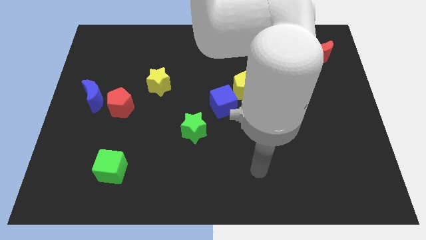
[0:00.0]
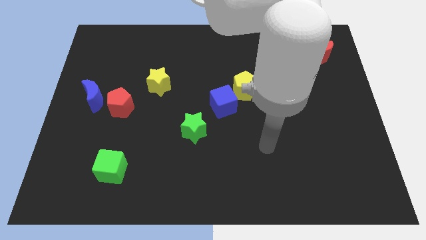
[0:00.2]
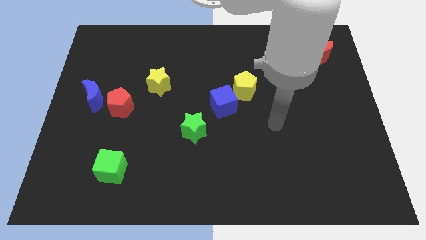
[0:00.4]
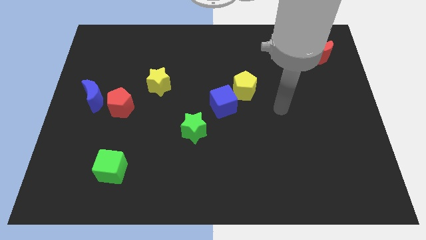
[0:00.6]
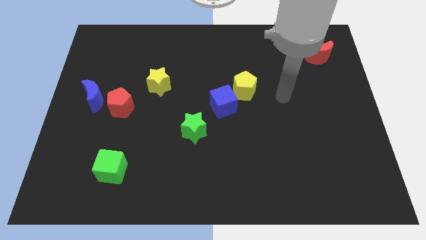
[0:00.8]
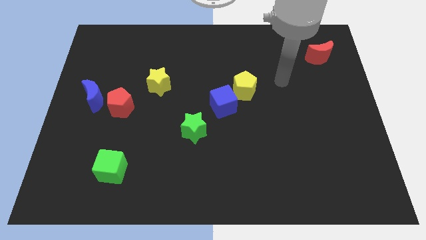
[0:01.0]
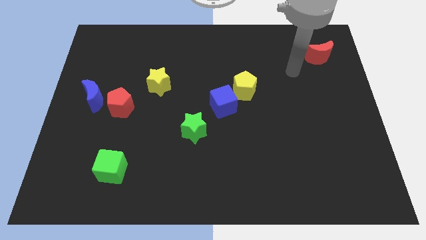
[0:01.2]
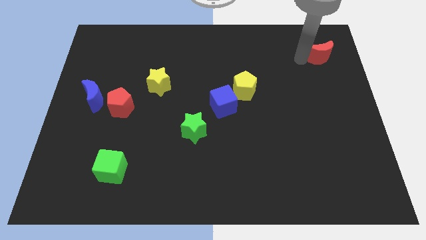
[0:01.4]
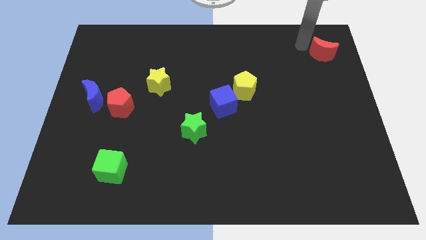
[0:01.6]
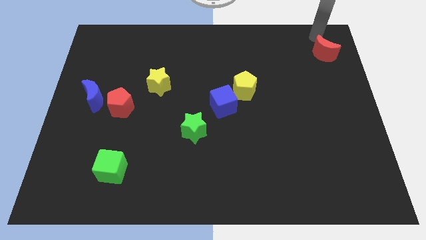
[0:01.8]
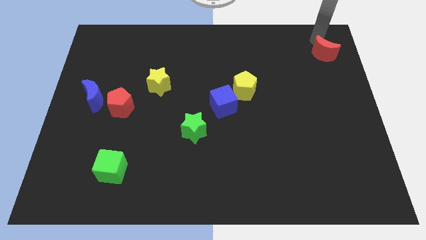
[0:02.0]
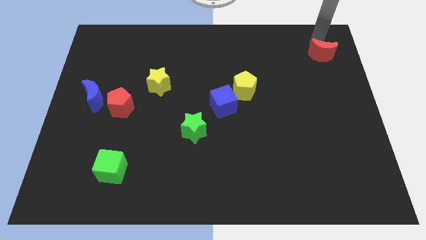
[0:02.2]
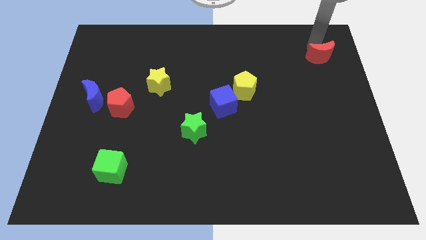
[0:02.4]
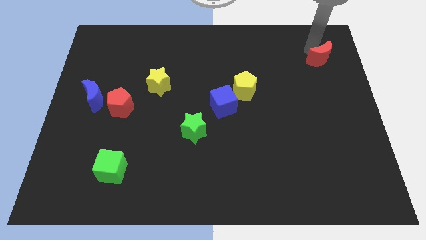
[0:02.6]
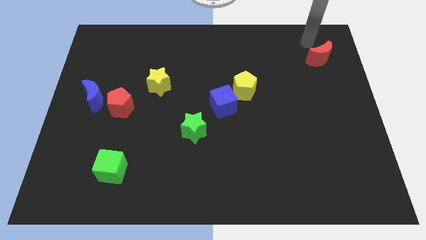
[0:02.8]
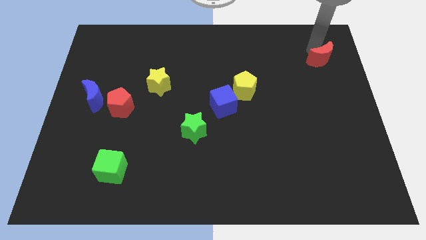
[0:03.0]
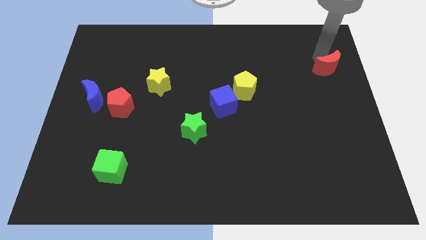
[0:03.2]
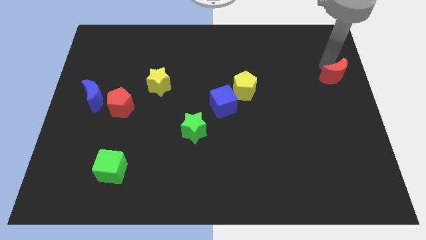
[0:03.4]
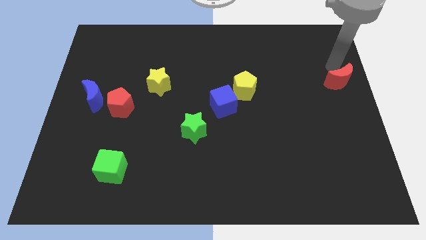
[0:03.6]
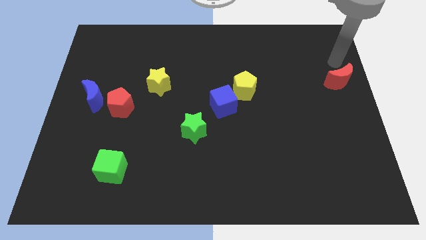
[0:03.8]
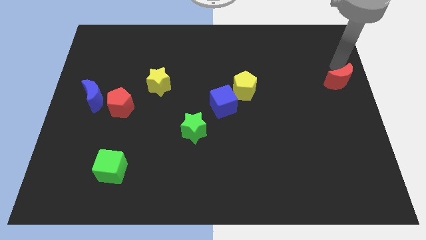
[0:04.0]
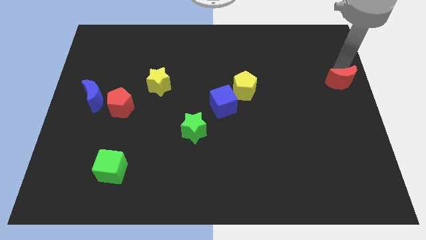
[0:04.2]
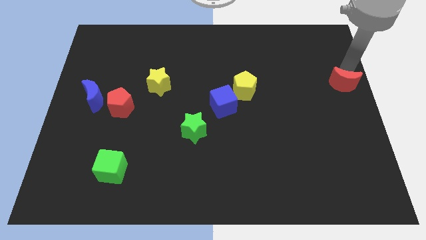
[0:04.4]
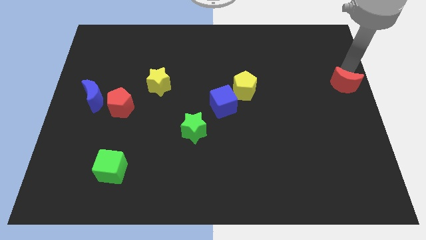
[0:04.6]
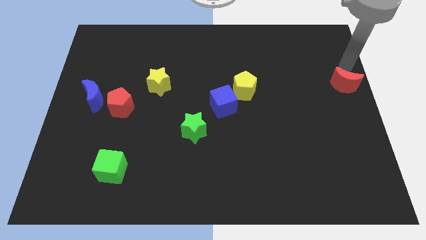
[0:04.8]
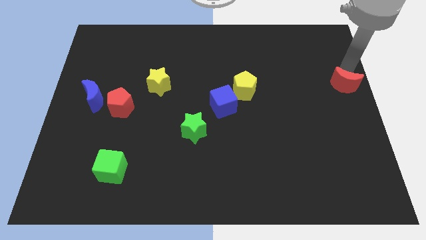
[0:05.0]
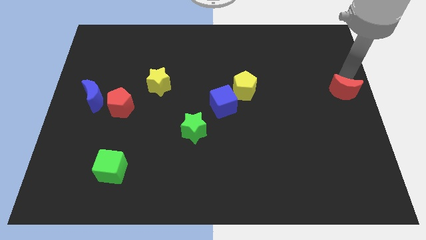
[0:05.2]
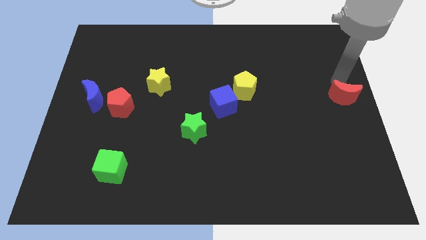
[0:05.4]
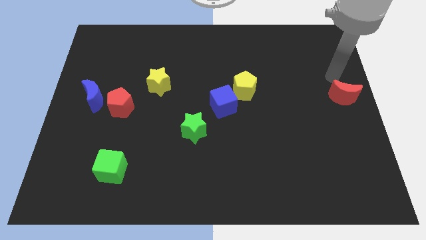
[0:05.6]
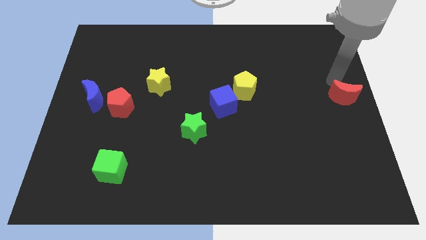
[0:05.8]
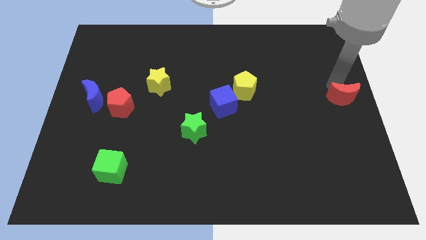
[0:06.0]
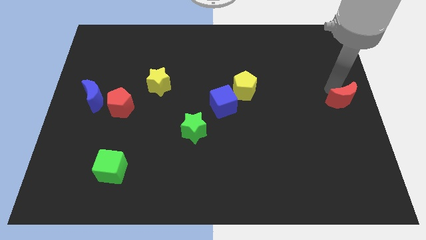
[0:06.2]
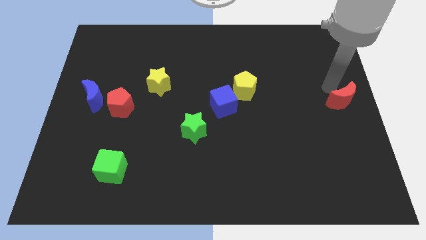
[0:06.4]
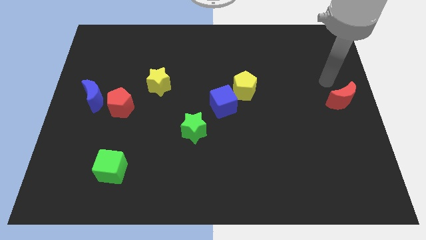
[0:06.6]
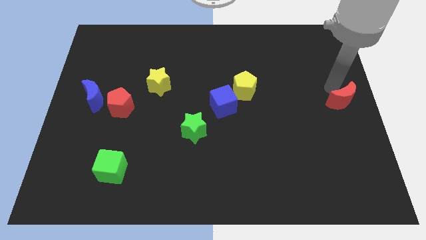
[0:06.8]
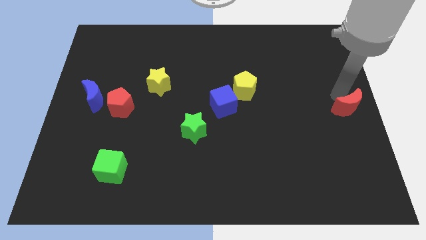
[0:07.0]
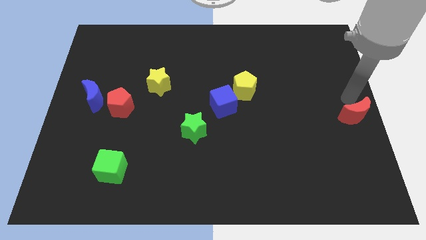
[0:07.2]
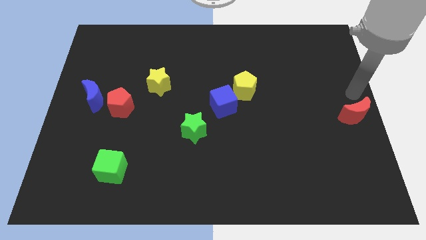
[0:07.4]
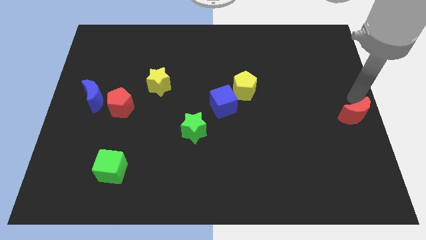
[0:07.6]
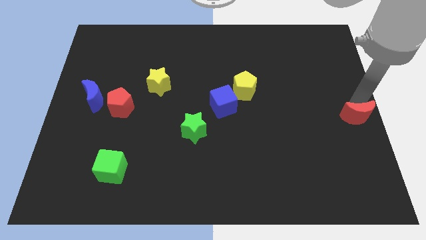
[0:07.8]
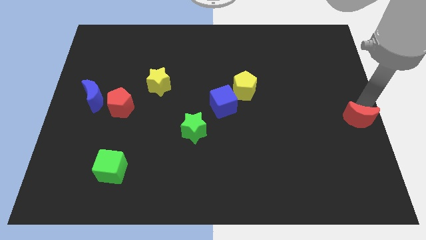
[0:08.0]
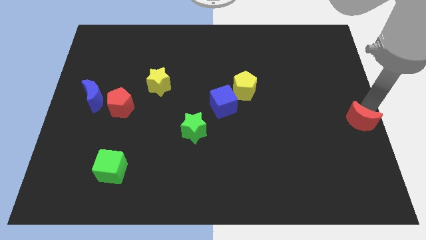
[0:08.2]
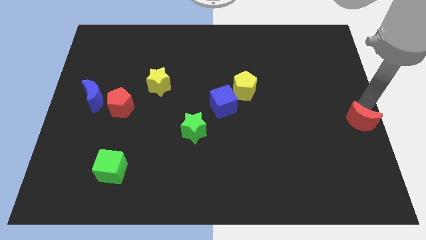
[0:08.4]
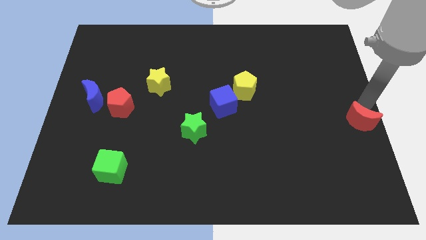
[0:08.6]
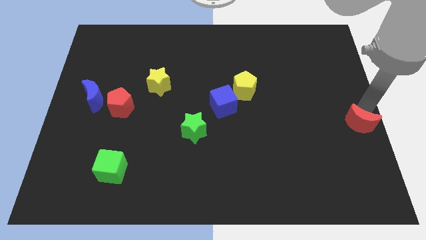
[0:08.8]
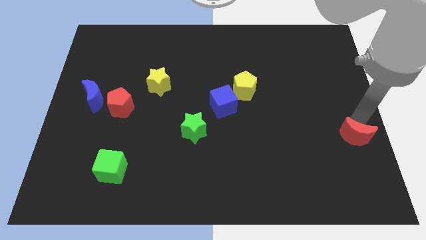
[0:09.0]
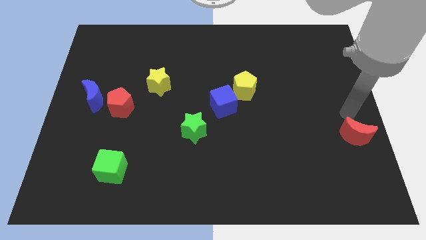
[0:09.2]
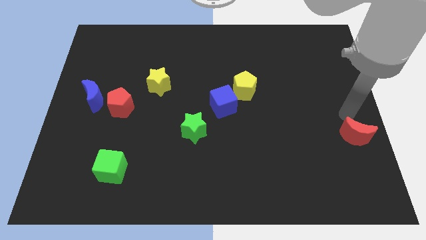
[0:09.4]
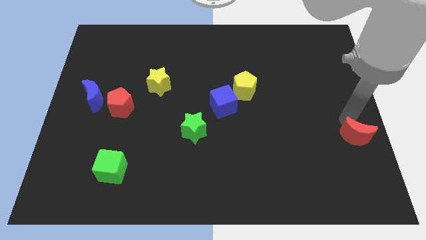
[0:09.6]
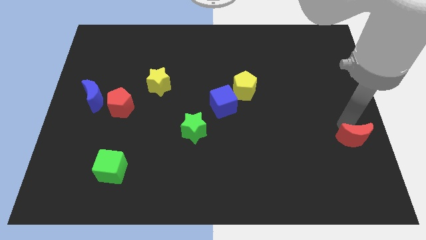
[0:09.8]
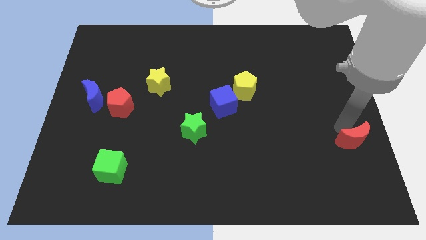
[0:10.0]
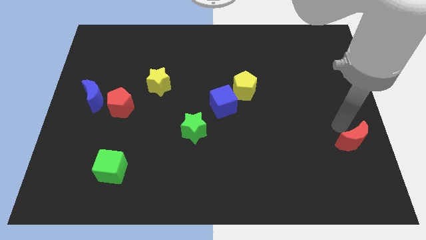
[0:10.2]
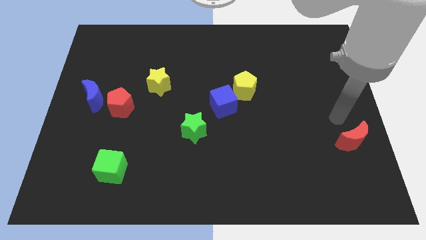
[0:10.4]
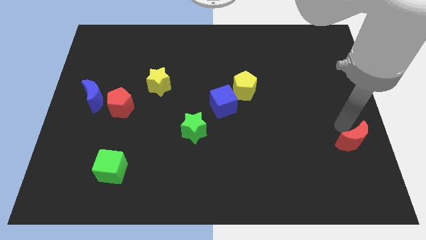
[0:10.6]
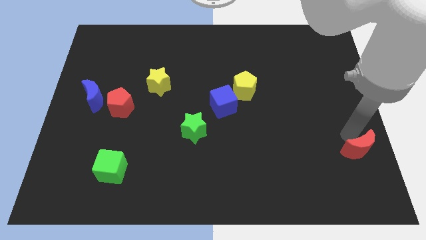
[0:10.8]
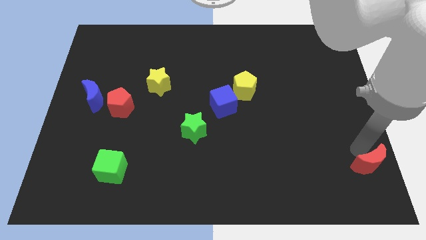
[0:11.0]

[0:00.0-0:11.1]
slide the red moon to the bottom right corner

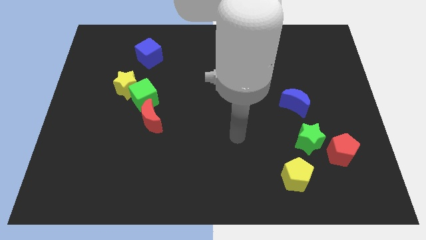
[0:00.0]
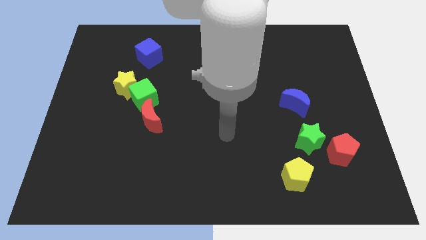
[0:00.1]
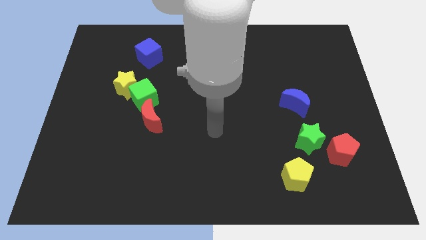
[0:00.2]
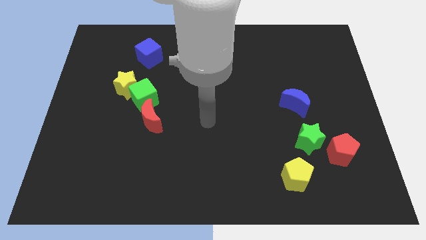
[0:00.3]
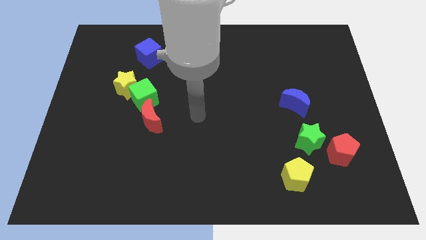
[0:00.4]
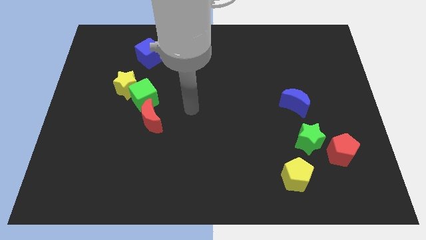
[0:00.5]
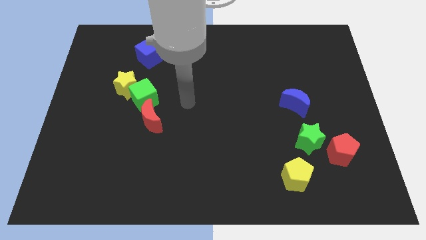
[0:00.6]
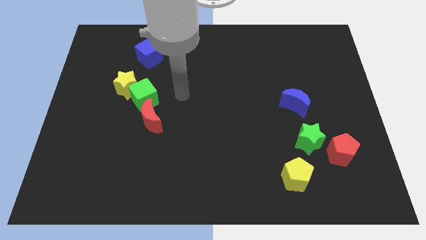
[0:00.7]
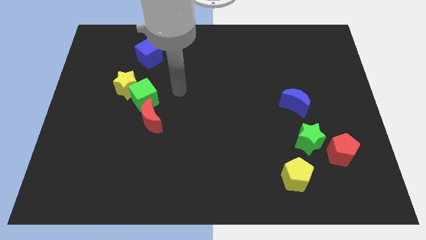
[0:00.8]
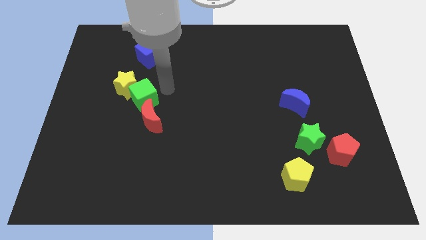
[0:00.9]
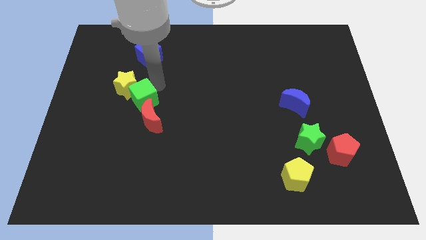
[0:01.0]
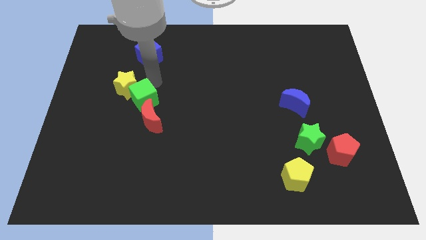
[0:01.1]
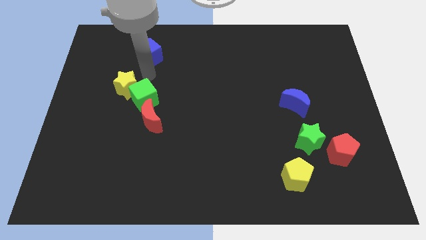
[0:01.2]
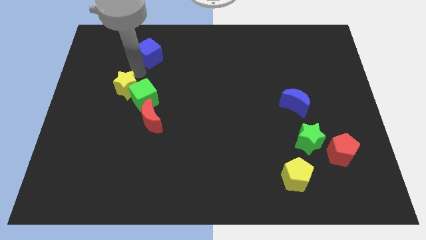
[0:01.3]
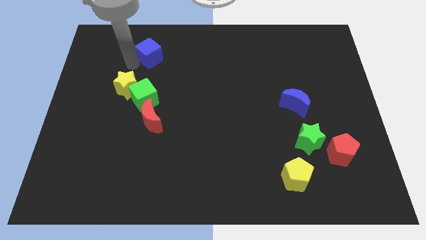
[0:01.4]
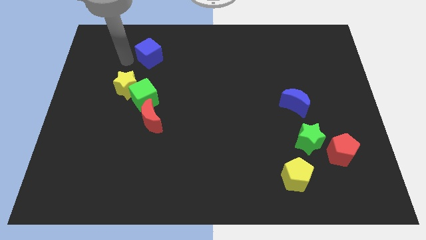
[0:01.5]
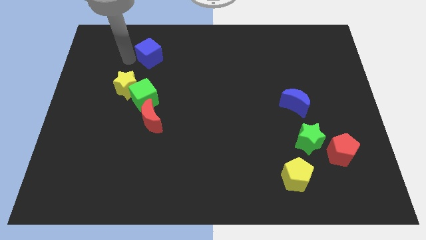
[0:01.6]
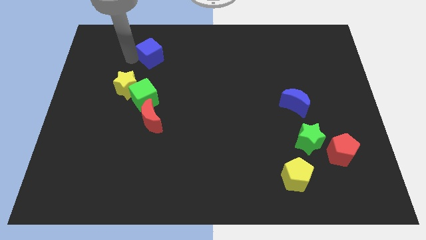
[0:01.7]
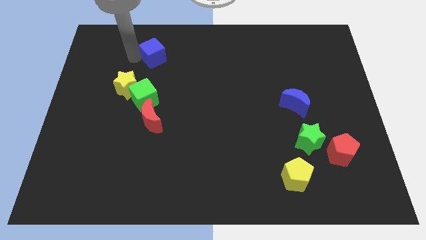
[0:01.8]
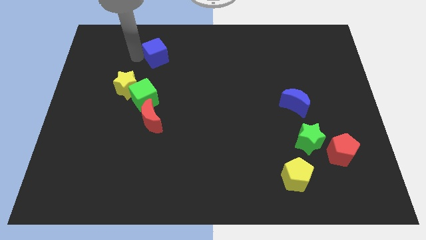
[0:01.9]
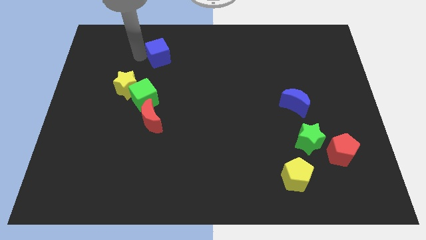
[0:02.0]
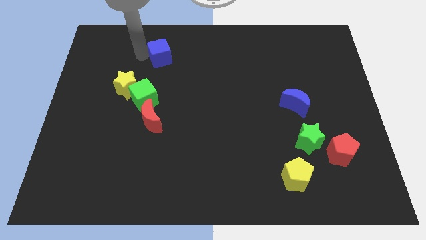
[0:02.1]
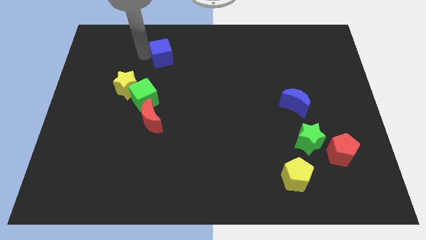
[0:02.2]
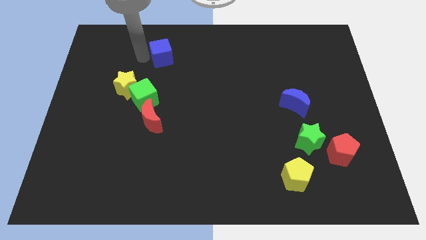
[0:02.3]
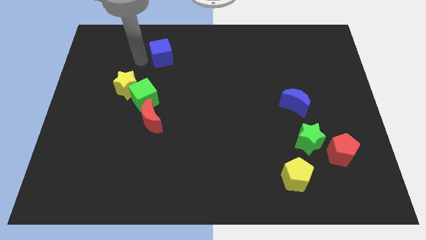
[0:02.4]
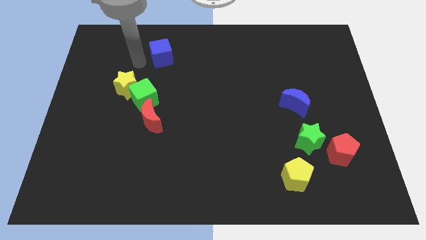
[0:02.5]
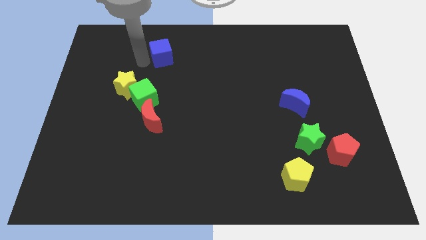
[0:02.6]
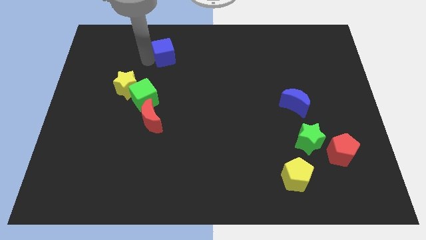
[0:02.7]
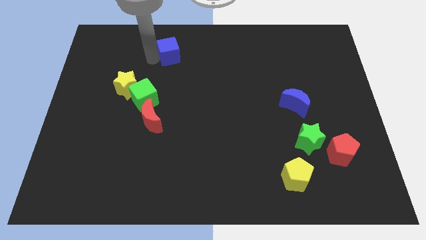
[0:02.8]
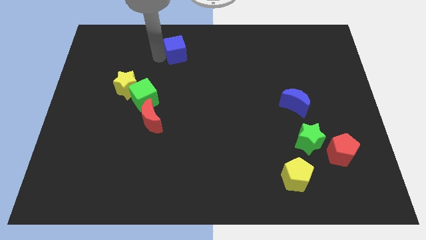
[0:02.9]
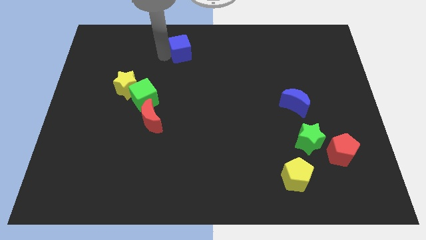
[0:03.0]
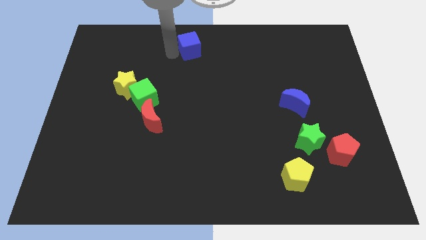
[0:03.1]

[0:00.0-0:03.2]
slide the blue cube to the top side
